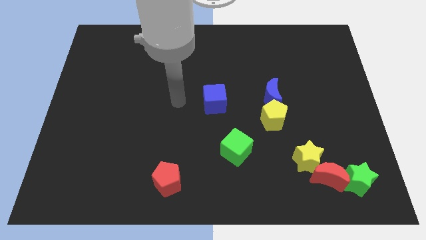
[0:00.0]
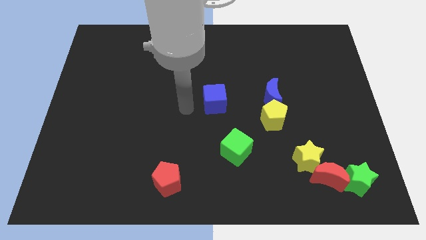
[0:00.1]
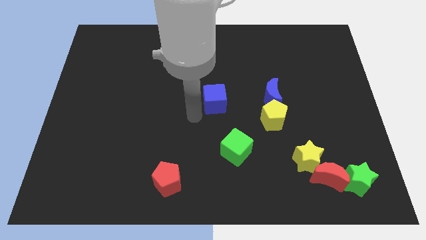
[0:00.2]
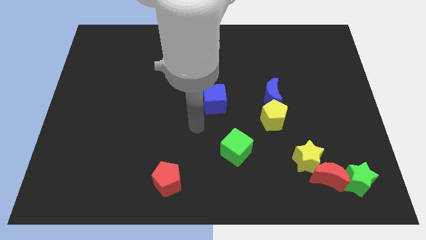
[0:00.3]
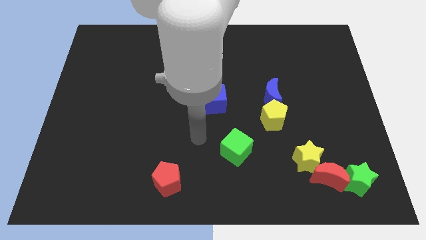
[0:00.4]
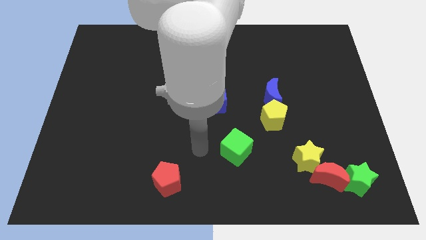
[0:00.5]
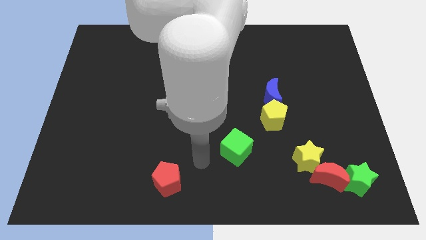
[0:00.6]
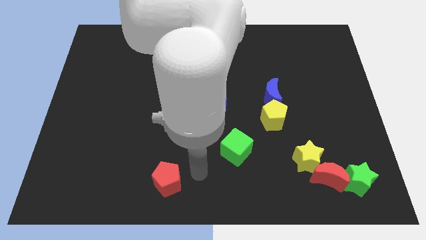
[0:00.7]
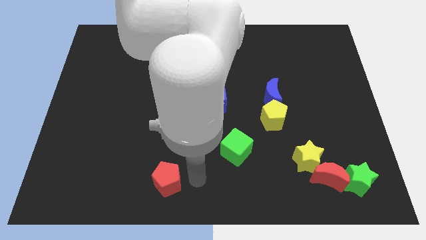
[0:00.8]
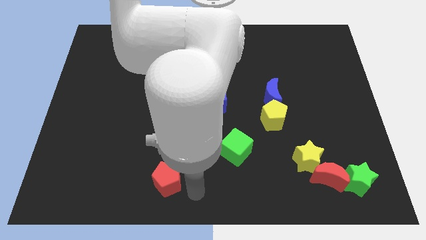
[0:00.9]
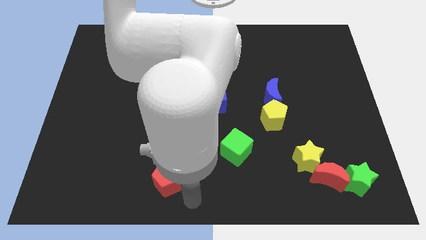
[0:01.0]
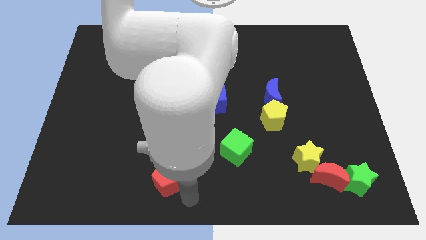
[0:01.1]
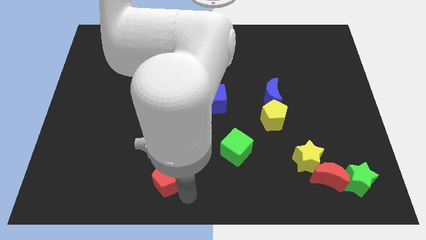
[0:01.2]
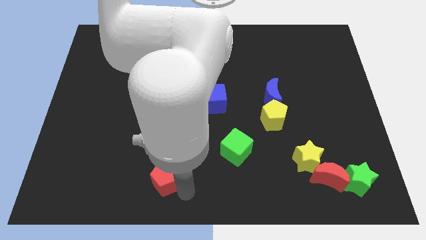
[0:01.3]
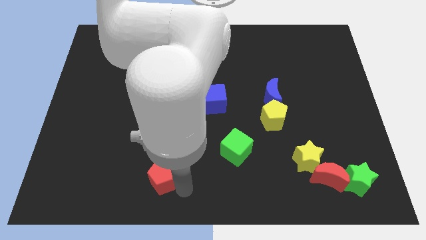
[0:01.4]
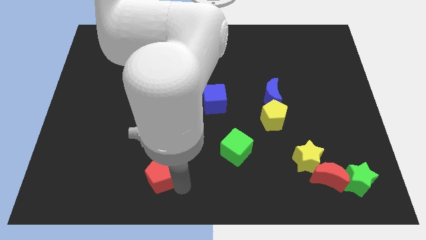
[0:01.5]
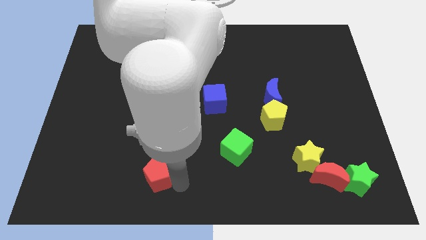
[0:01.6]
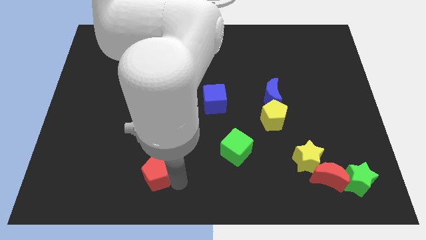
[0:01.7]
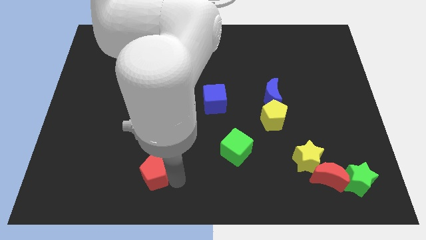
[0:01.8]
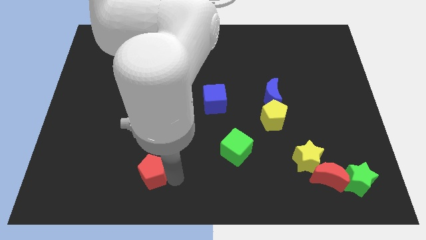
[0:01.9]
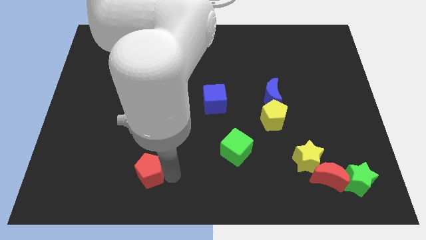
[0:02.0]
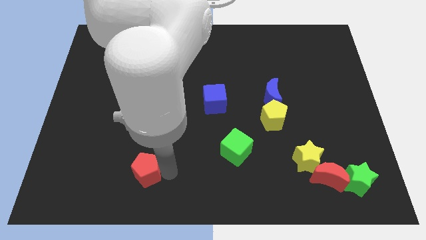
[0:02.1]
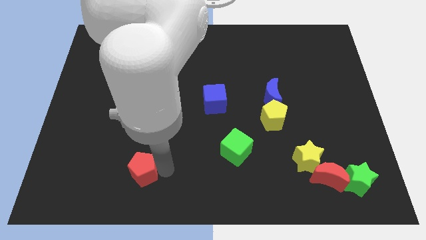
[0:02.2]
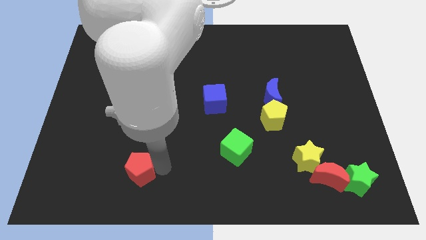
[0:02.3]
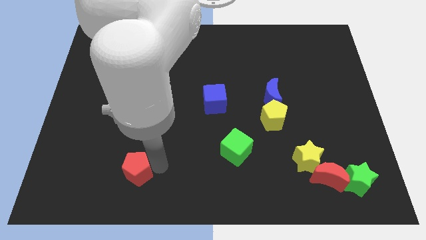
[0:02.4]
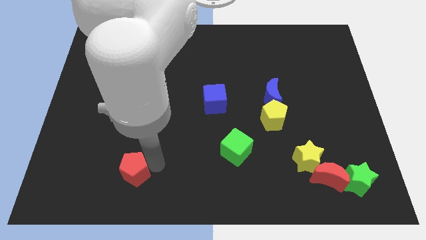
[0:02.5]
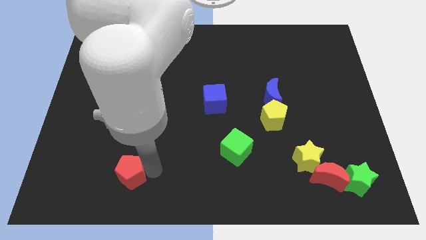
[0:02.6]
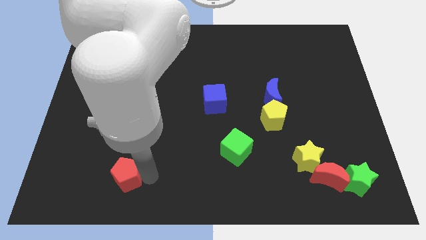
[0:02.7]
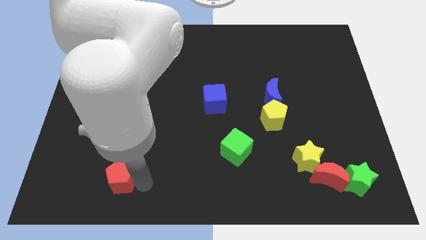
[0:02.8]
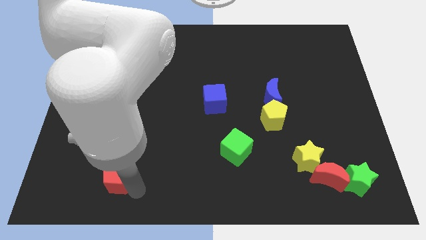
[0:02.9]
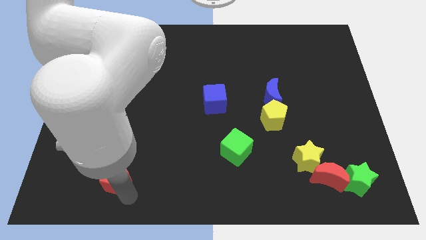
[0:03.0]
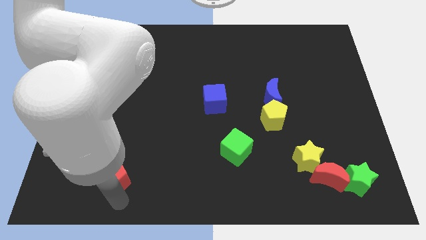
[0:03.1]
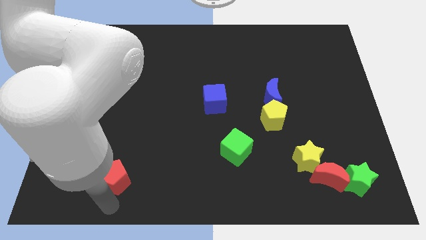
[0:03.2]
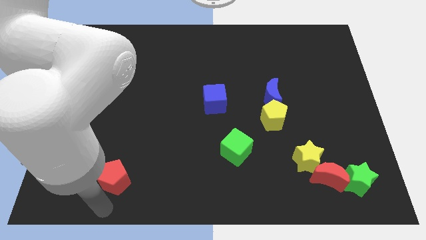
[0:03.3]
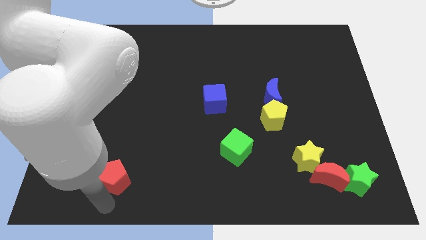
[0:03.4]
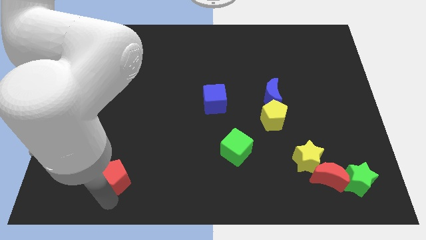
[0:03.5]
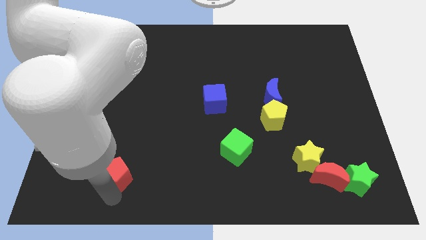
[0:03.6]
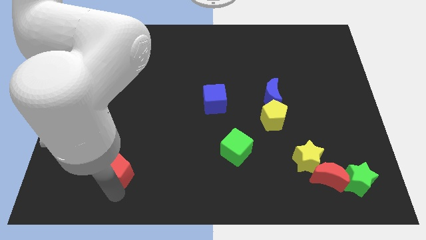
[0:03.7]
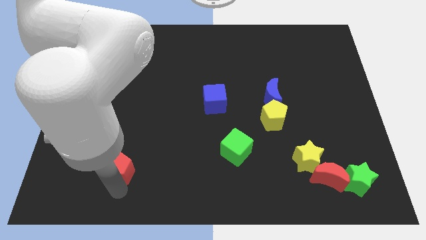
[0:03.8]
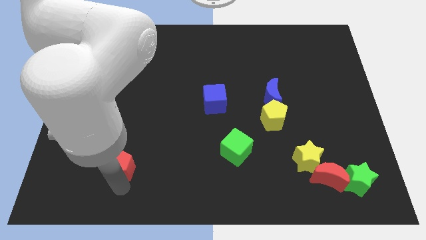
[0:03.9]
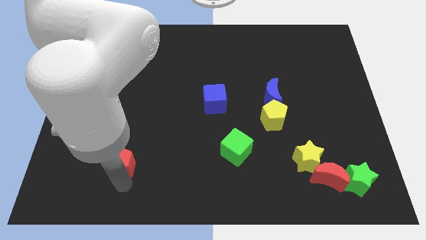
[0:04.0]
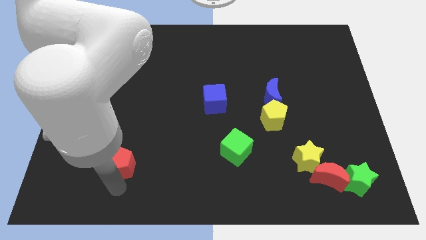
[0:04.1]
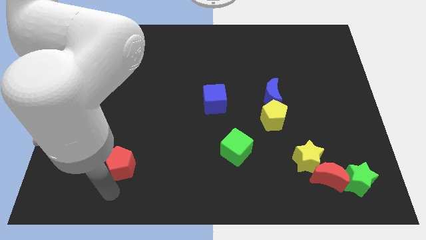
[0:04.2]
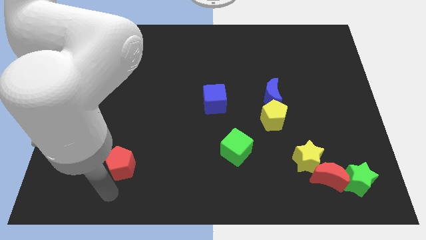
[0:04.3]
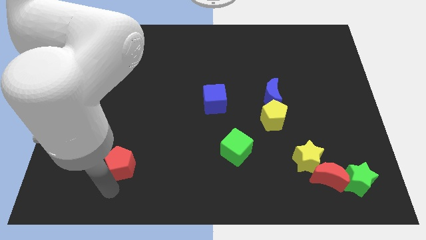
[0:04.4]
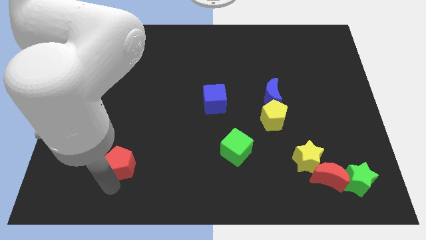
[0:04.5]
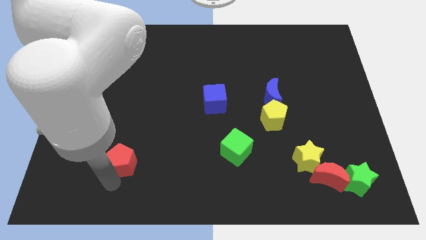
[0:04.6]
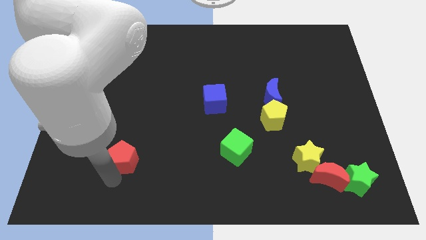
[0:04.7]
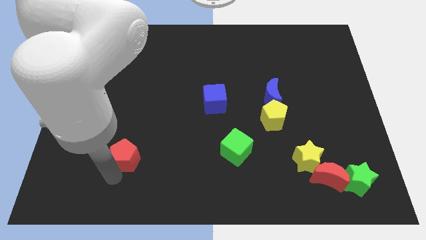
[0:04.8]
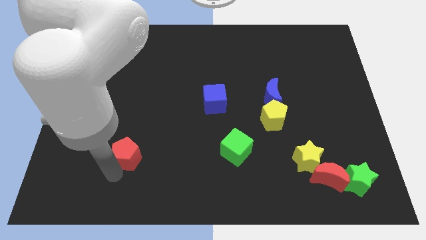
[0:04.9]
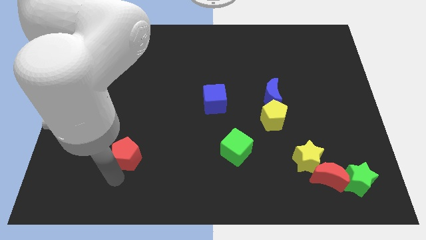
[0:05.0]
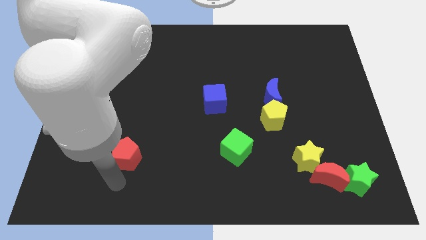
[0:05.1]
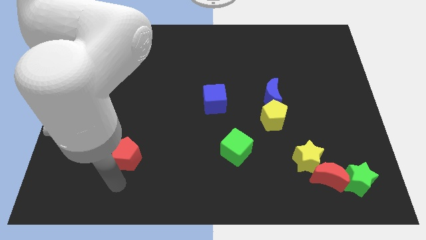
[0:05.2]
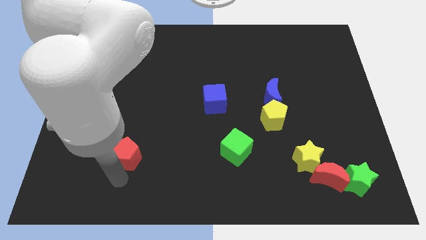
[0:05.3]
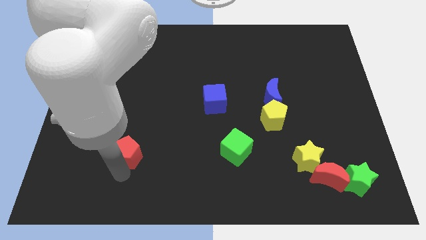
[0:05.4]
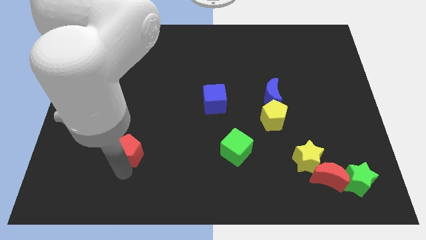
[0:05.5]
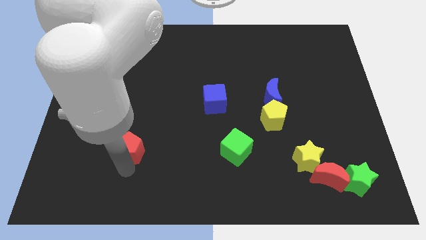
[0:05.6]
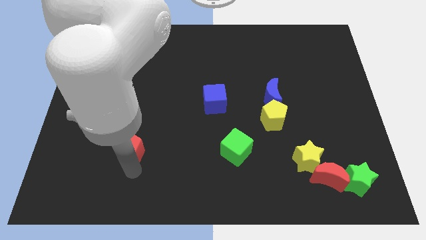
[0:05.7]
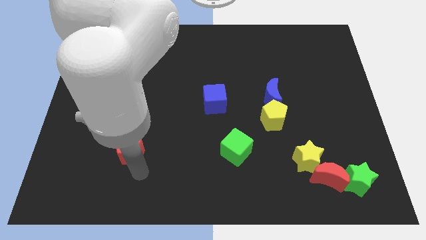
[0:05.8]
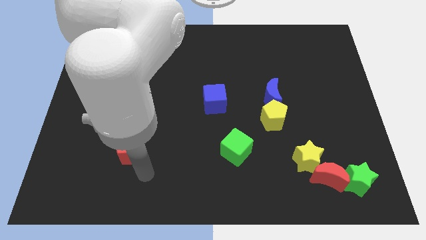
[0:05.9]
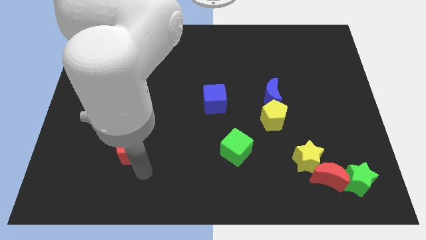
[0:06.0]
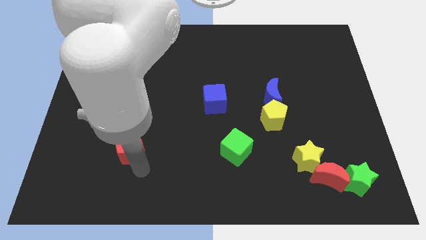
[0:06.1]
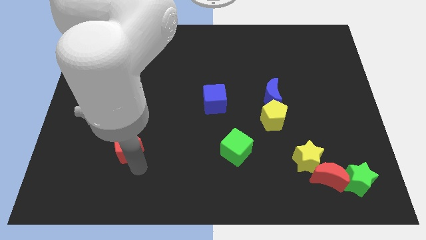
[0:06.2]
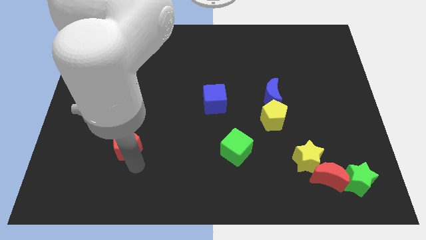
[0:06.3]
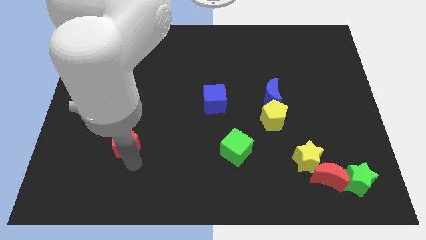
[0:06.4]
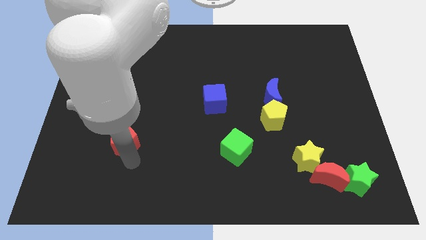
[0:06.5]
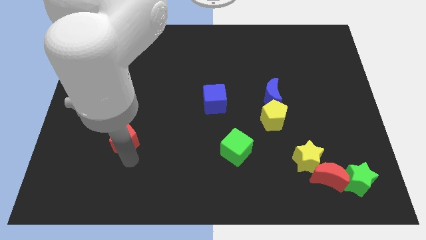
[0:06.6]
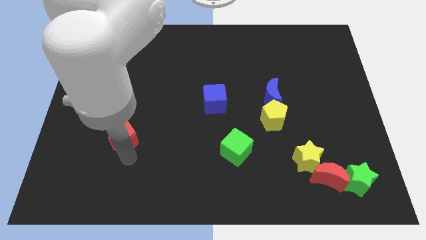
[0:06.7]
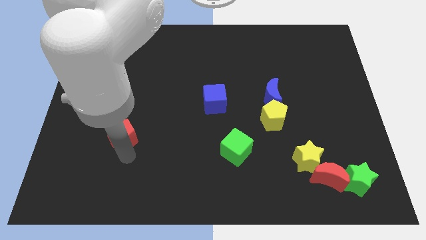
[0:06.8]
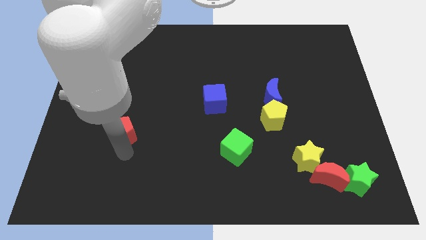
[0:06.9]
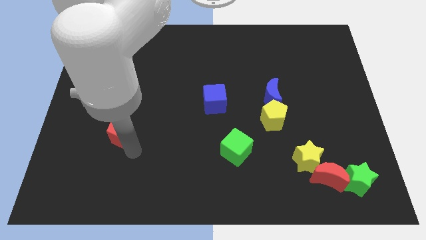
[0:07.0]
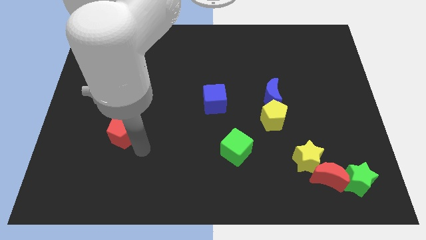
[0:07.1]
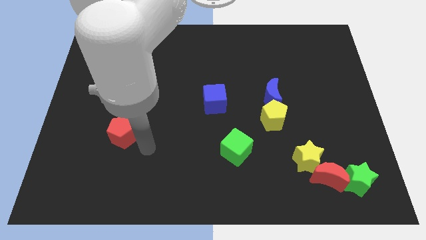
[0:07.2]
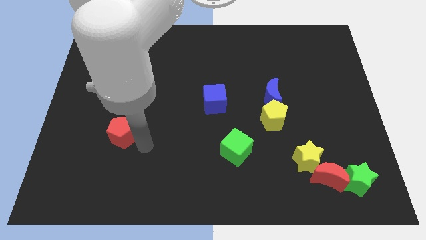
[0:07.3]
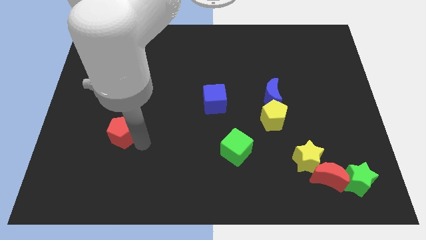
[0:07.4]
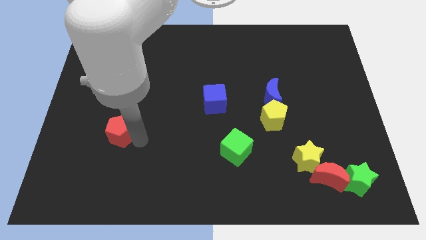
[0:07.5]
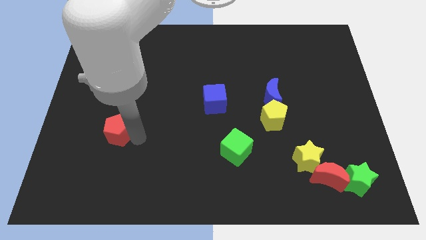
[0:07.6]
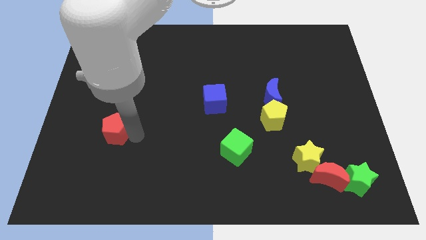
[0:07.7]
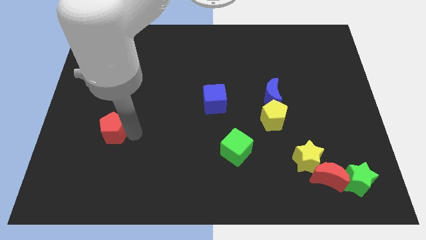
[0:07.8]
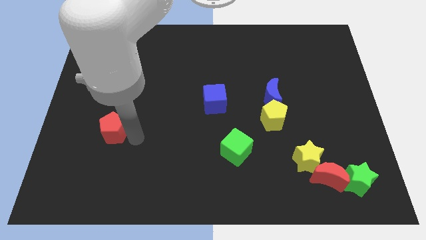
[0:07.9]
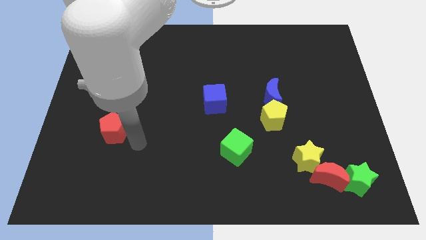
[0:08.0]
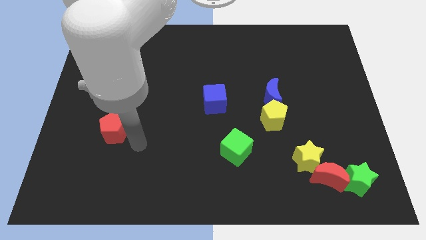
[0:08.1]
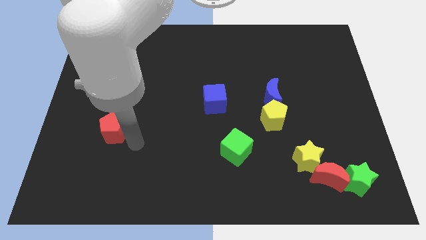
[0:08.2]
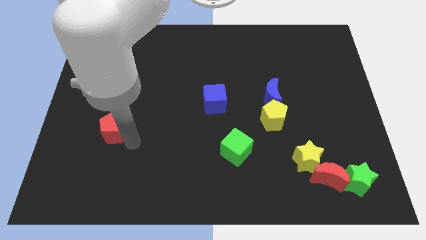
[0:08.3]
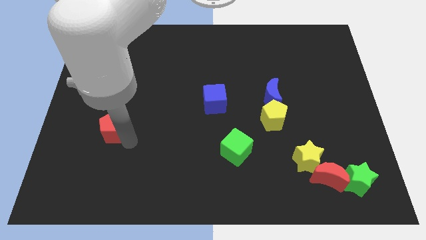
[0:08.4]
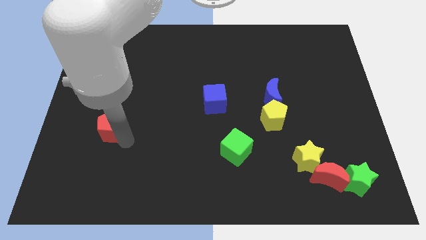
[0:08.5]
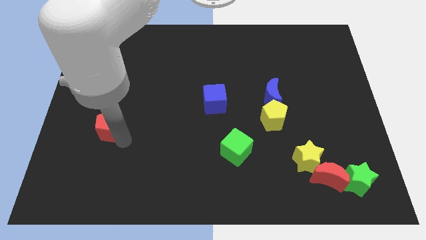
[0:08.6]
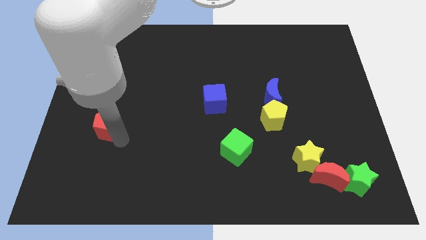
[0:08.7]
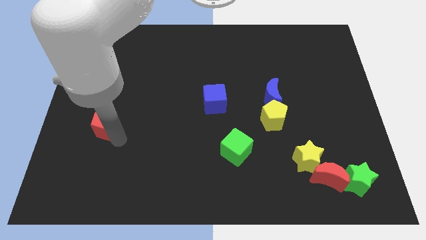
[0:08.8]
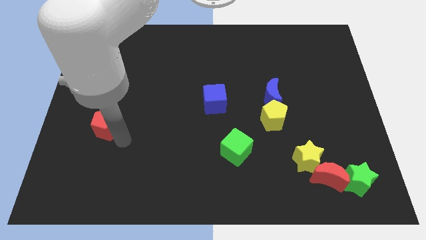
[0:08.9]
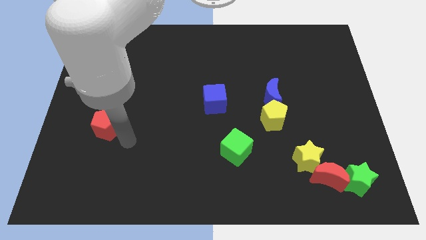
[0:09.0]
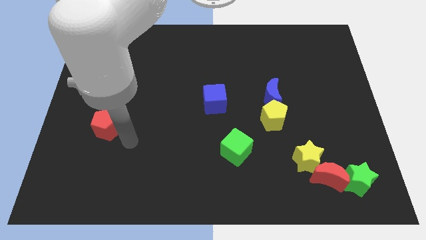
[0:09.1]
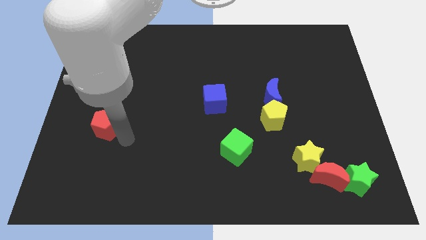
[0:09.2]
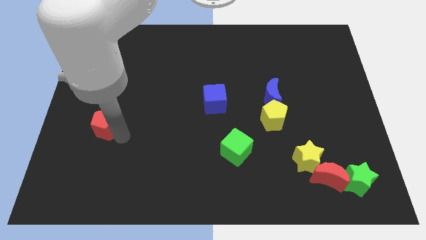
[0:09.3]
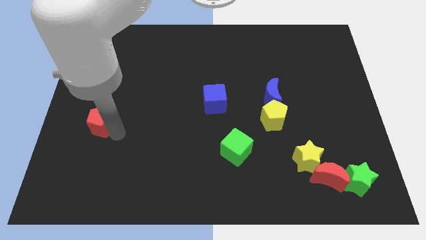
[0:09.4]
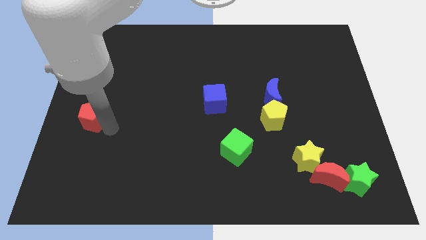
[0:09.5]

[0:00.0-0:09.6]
push the red pentagon to the left side
